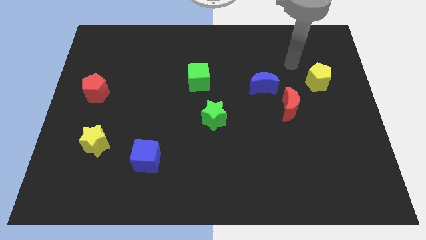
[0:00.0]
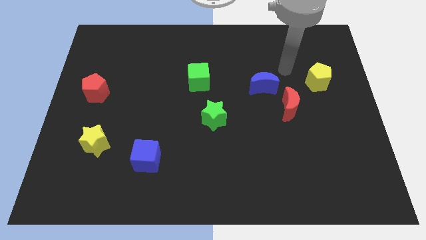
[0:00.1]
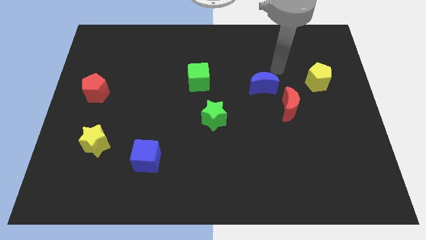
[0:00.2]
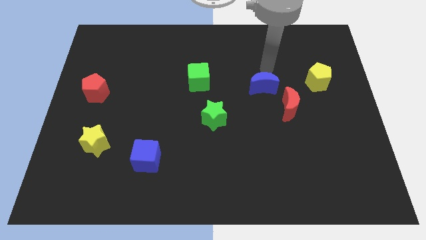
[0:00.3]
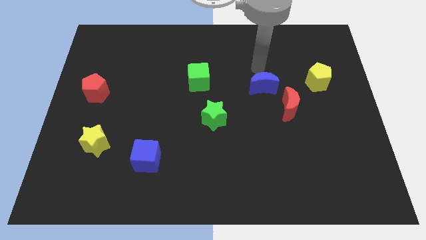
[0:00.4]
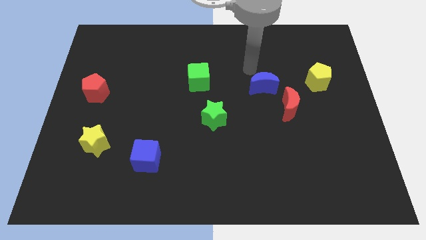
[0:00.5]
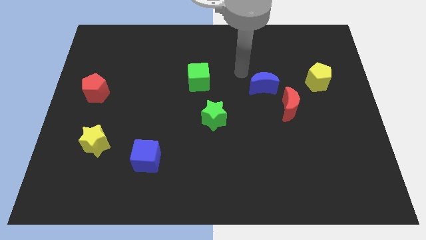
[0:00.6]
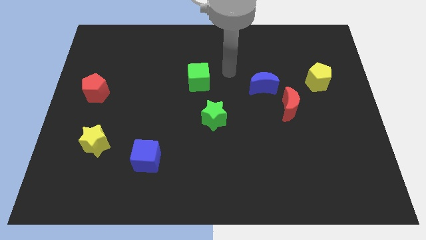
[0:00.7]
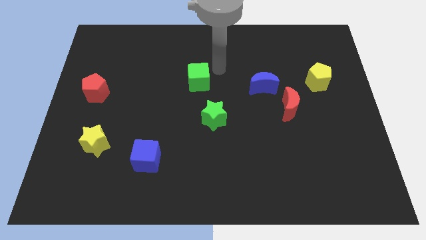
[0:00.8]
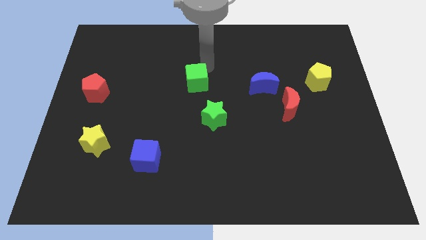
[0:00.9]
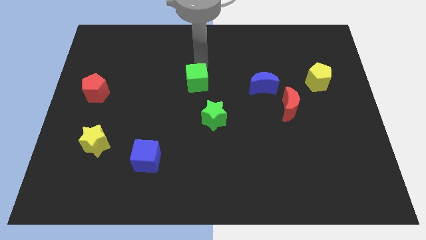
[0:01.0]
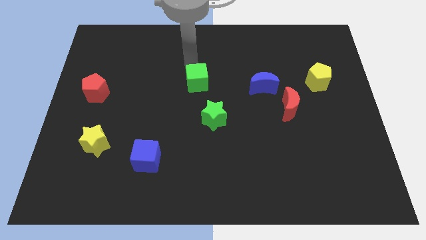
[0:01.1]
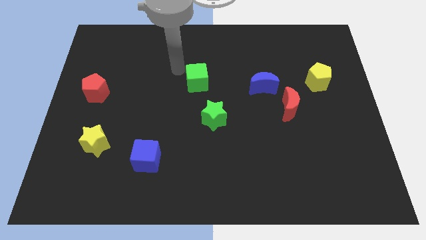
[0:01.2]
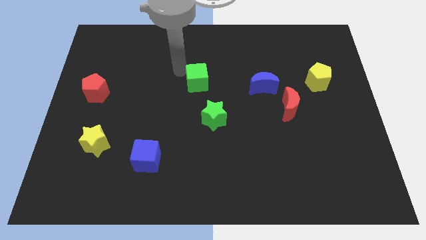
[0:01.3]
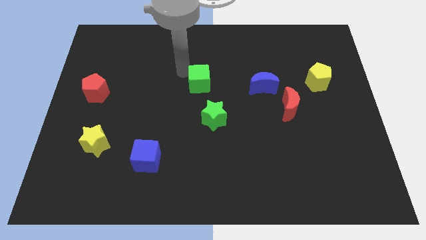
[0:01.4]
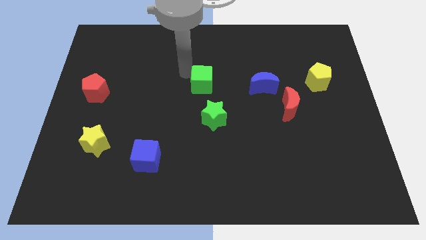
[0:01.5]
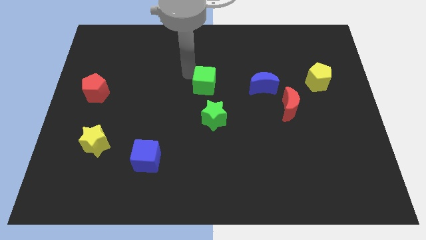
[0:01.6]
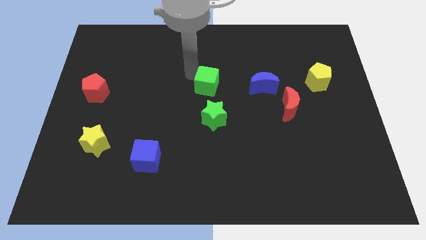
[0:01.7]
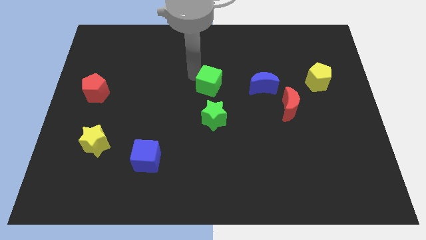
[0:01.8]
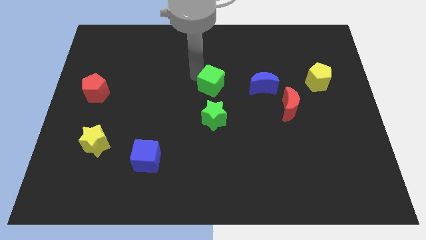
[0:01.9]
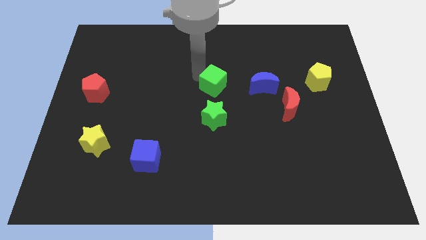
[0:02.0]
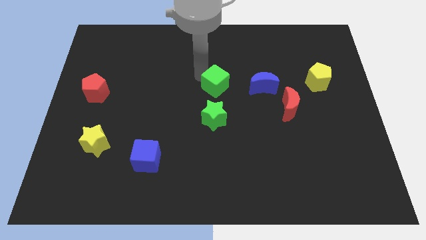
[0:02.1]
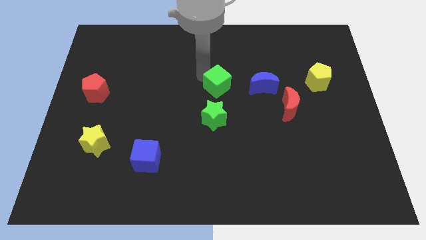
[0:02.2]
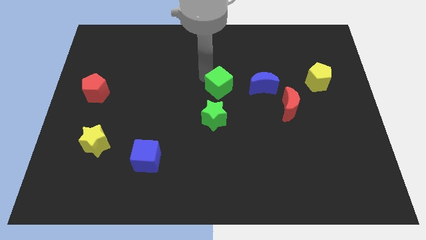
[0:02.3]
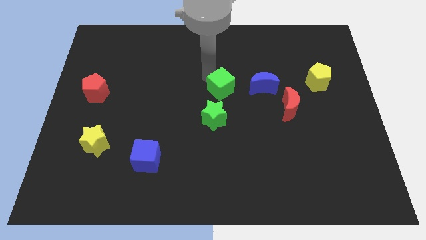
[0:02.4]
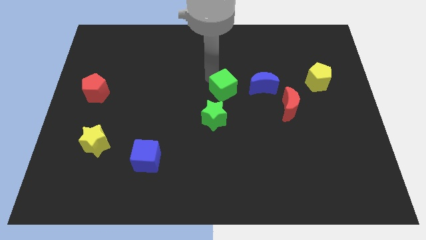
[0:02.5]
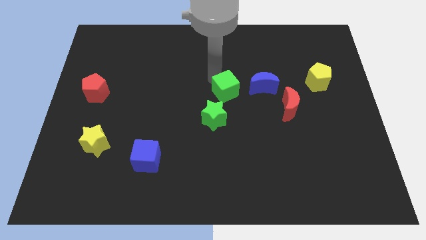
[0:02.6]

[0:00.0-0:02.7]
push the green cube a little bit downwards and right diagonally

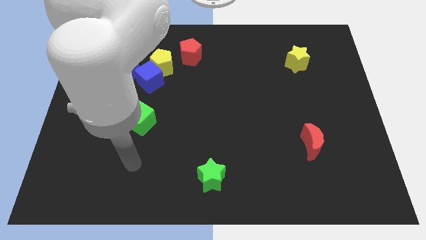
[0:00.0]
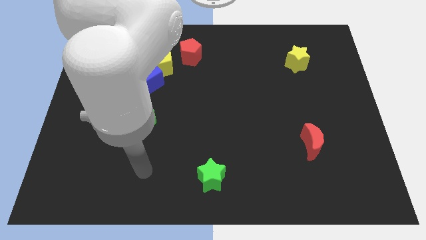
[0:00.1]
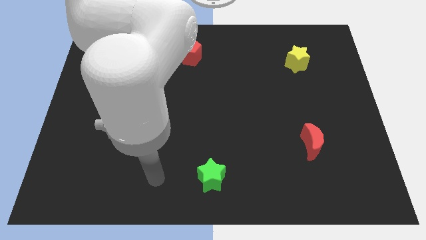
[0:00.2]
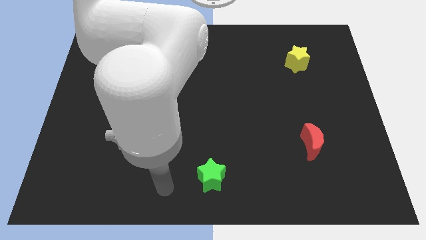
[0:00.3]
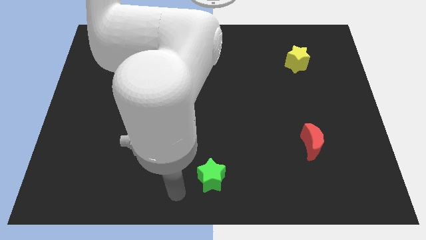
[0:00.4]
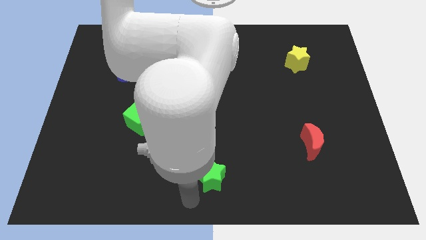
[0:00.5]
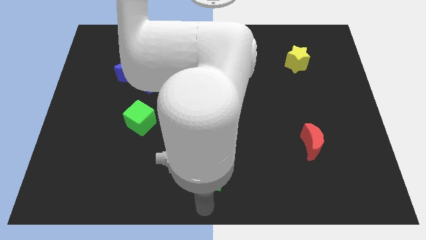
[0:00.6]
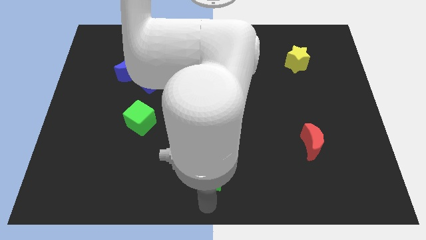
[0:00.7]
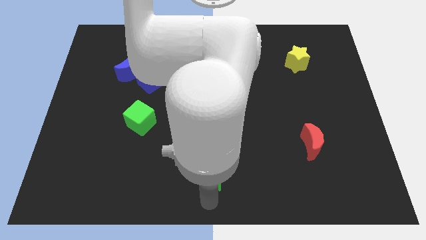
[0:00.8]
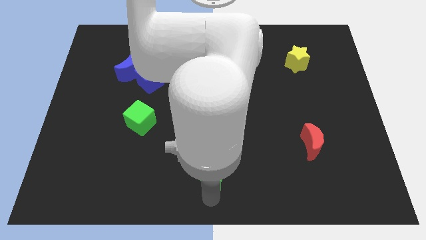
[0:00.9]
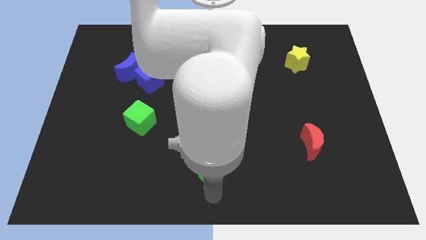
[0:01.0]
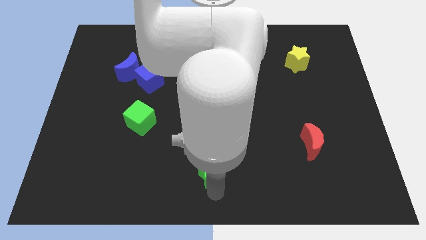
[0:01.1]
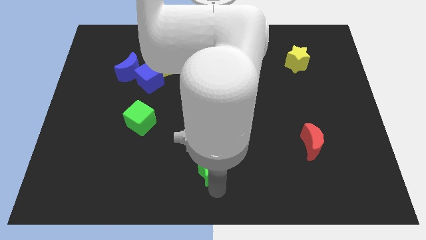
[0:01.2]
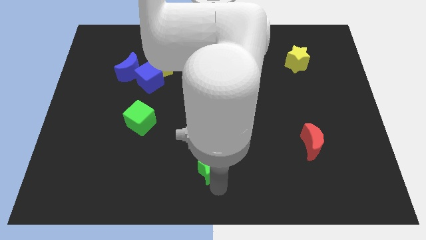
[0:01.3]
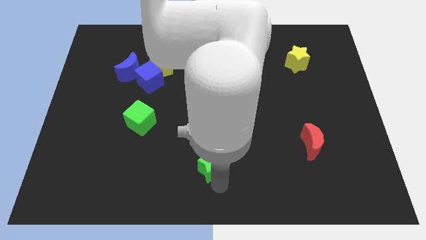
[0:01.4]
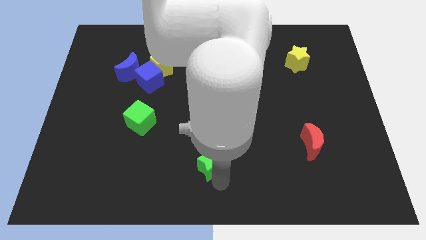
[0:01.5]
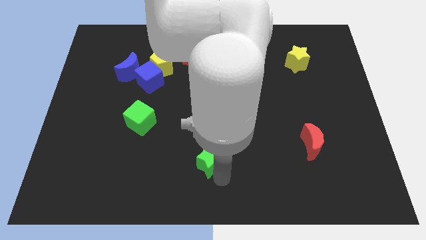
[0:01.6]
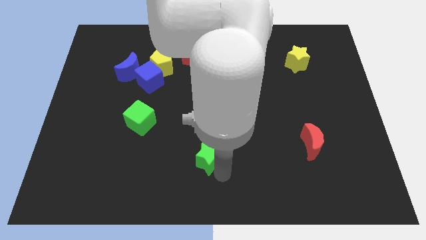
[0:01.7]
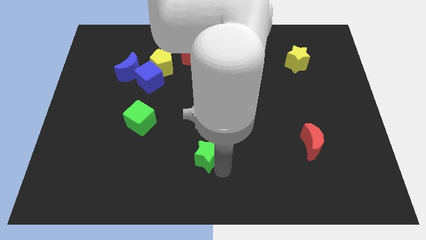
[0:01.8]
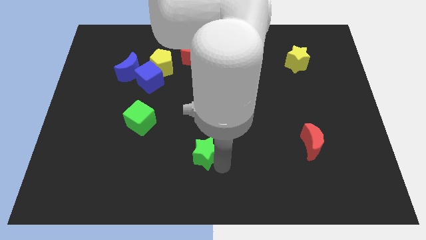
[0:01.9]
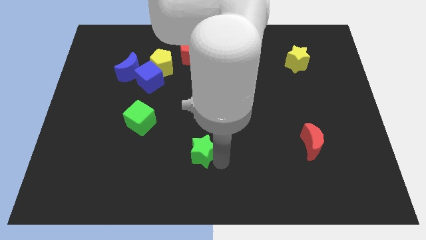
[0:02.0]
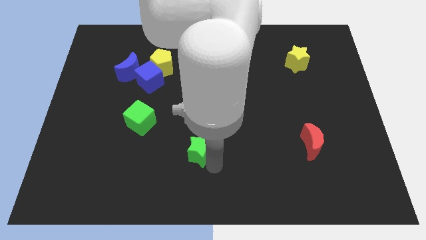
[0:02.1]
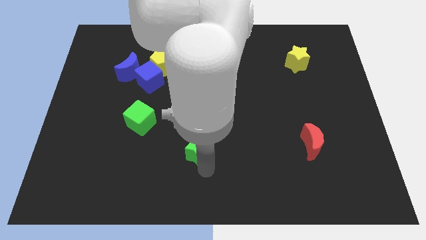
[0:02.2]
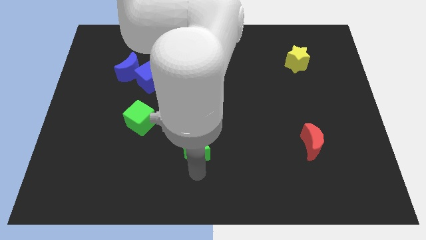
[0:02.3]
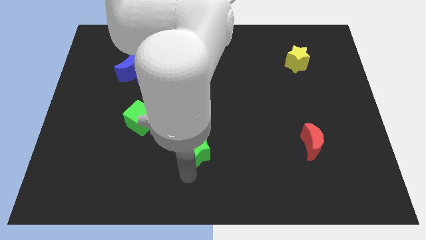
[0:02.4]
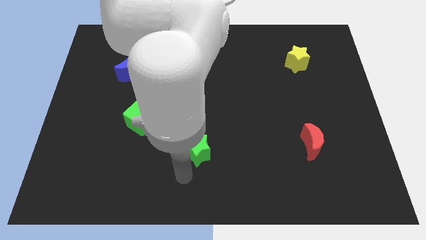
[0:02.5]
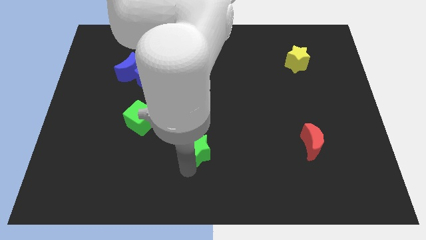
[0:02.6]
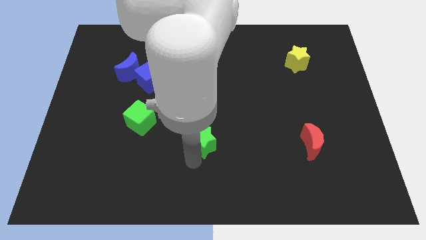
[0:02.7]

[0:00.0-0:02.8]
push the green star up somewhat

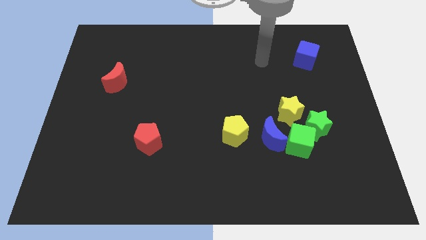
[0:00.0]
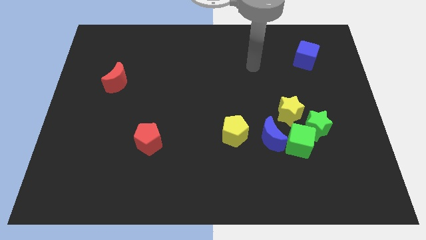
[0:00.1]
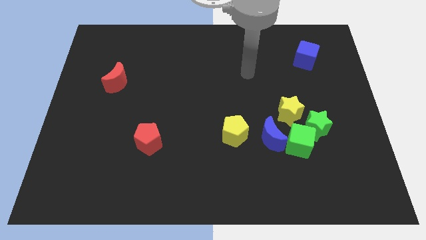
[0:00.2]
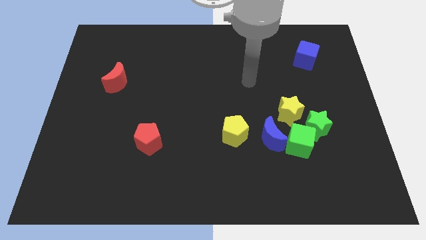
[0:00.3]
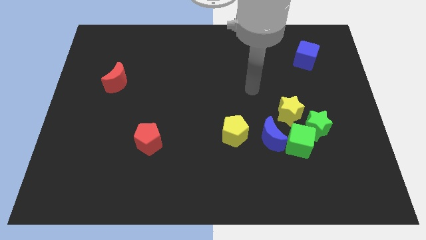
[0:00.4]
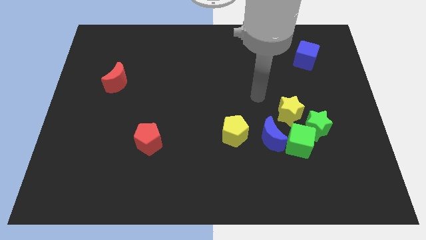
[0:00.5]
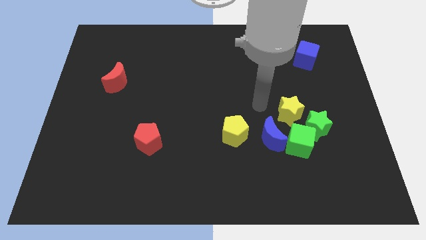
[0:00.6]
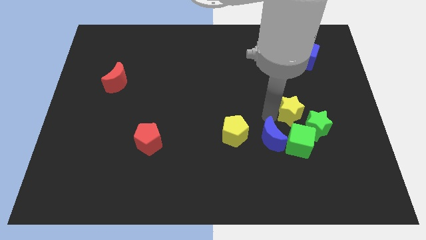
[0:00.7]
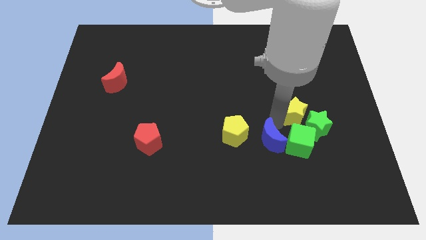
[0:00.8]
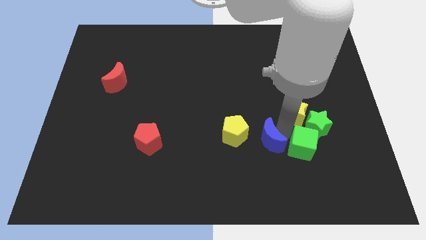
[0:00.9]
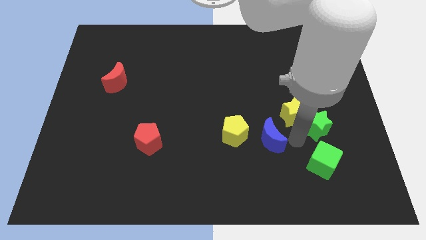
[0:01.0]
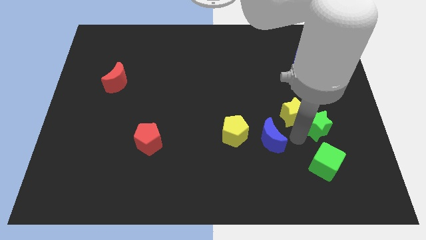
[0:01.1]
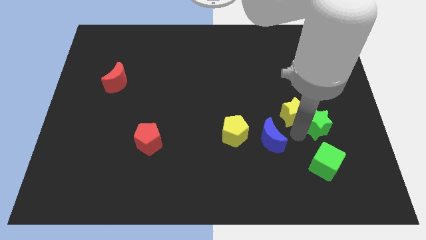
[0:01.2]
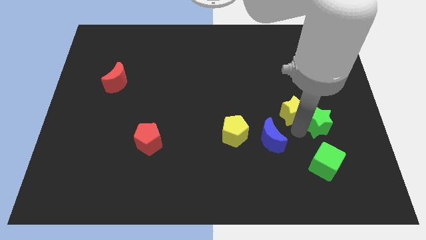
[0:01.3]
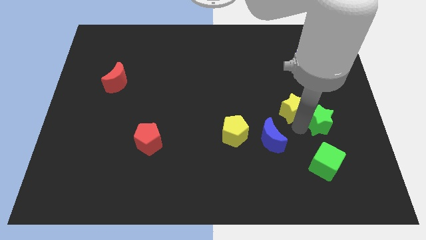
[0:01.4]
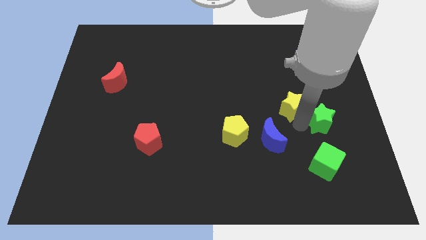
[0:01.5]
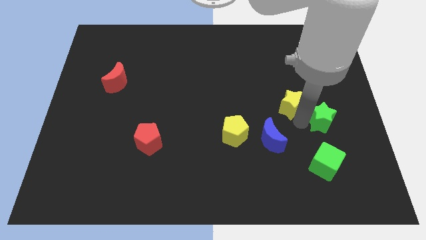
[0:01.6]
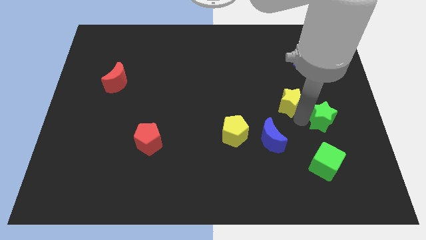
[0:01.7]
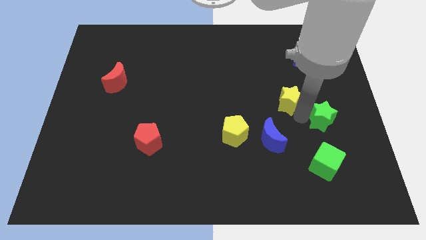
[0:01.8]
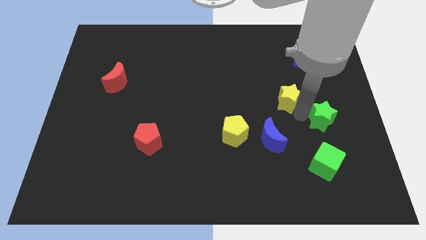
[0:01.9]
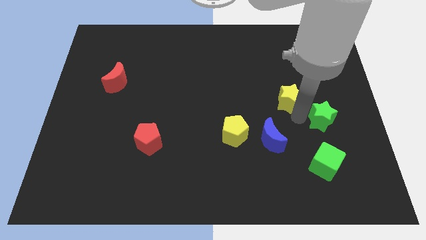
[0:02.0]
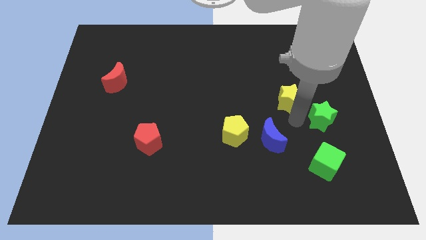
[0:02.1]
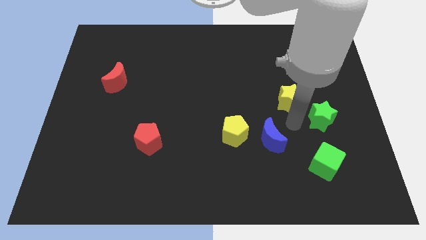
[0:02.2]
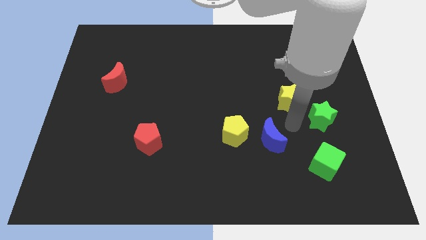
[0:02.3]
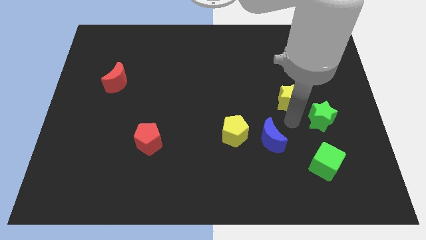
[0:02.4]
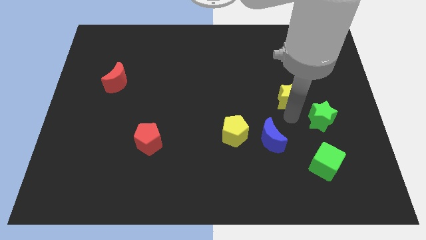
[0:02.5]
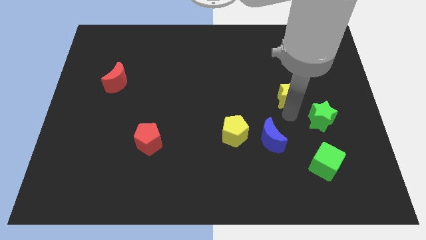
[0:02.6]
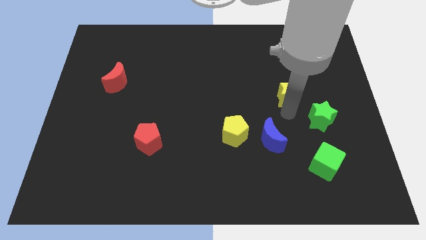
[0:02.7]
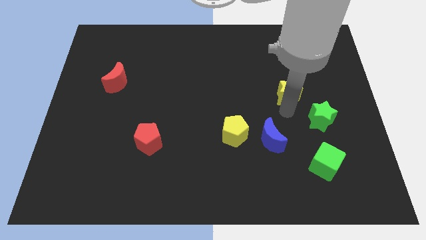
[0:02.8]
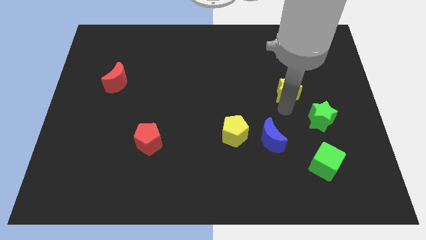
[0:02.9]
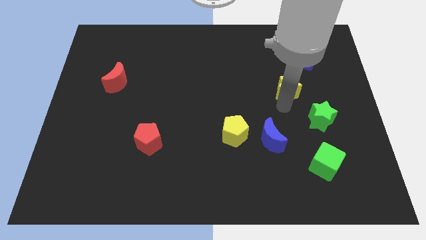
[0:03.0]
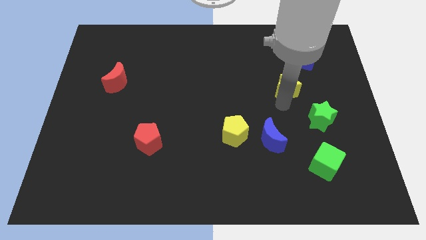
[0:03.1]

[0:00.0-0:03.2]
move the yellow star a little bit up
